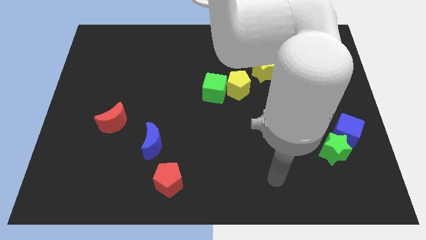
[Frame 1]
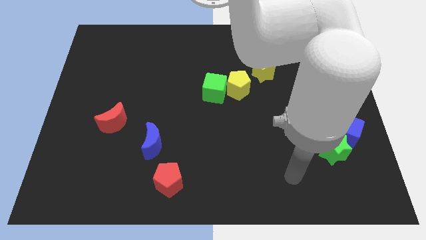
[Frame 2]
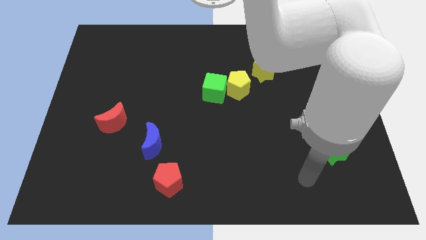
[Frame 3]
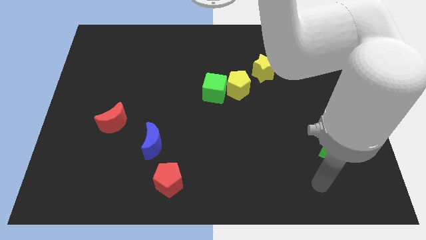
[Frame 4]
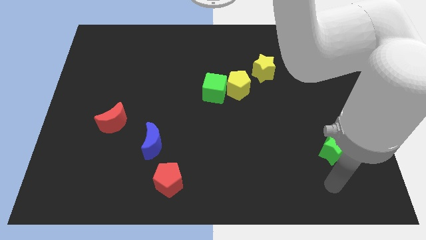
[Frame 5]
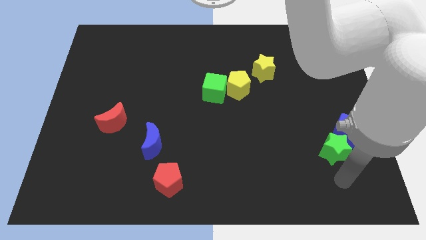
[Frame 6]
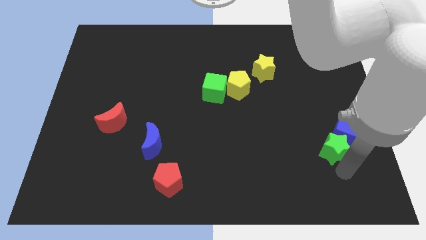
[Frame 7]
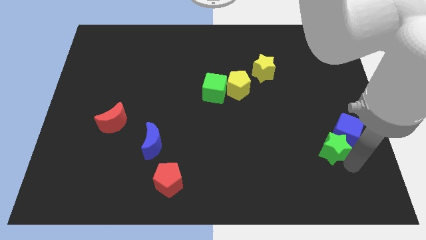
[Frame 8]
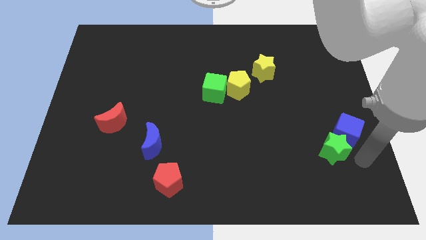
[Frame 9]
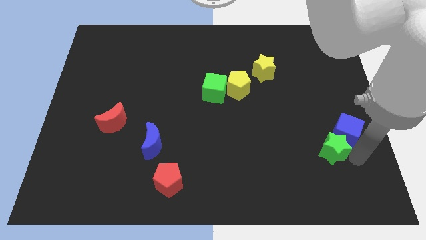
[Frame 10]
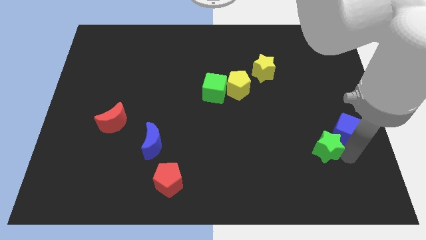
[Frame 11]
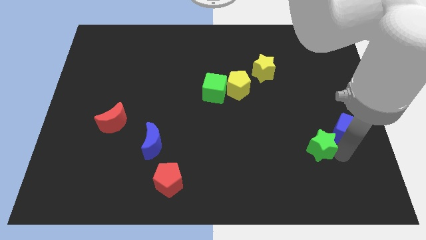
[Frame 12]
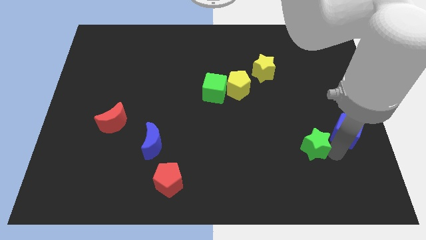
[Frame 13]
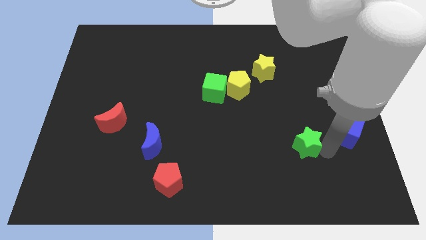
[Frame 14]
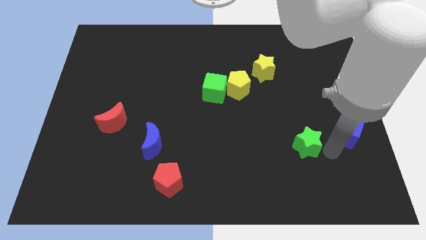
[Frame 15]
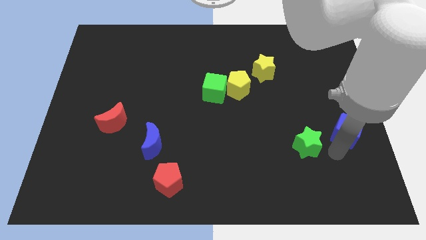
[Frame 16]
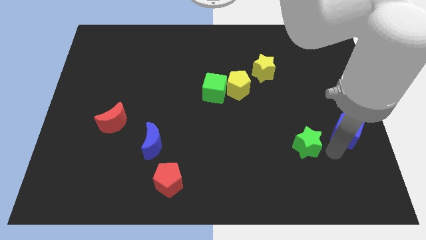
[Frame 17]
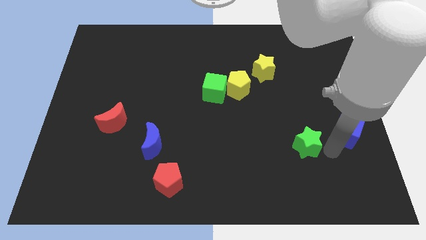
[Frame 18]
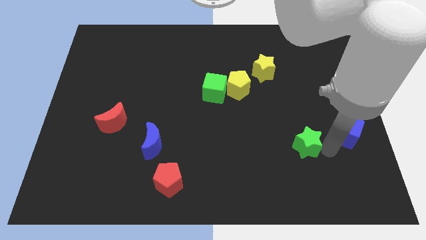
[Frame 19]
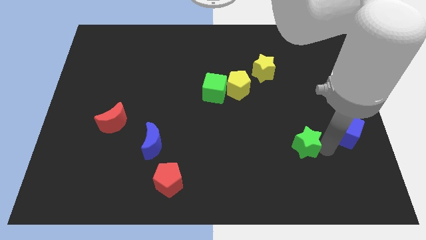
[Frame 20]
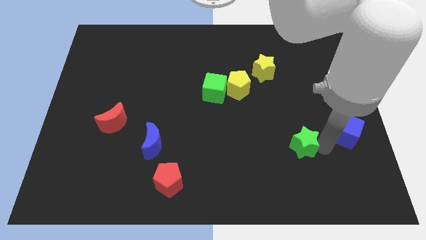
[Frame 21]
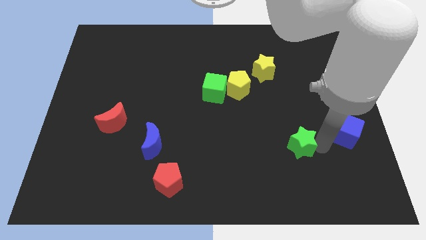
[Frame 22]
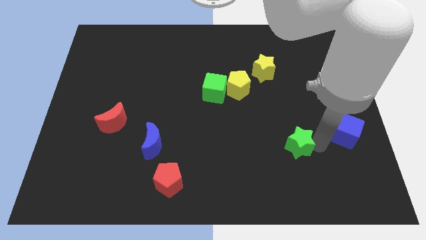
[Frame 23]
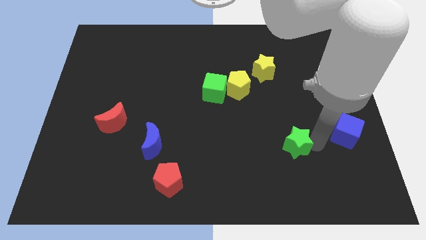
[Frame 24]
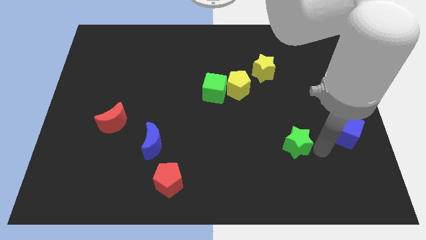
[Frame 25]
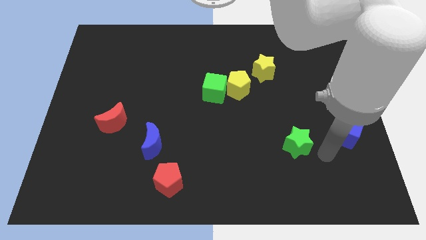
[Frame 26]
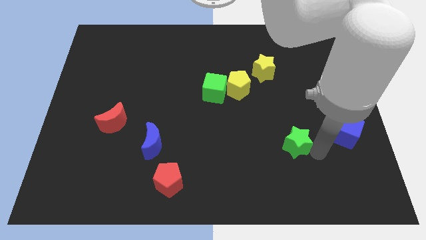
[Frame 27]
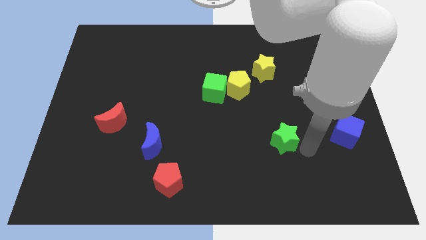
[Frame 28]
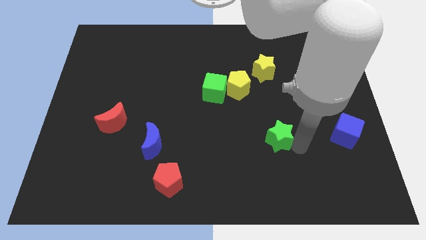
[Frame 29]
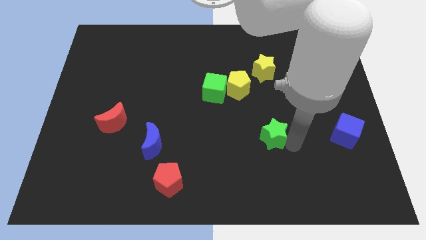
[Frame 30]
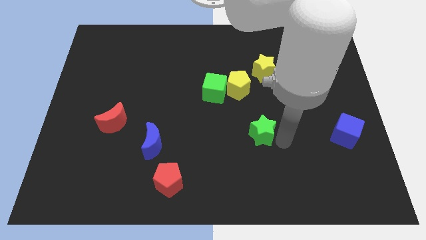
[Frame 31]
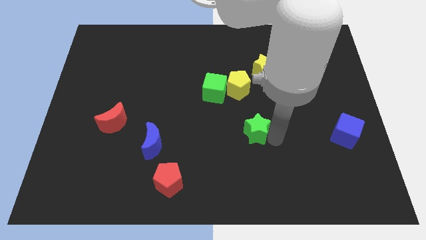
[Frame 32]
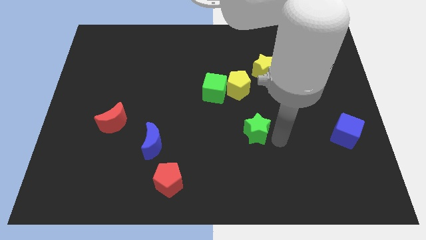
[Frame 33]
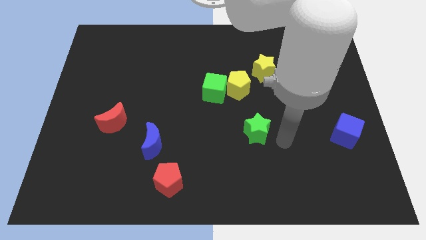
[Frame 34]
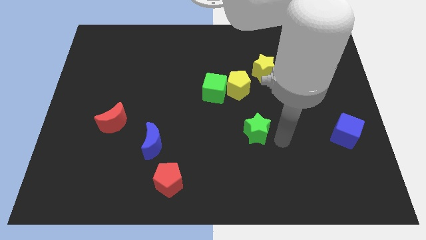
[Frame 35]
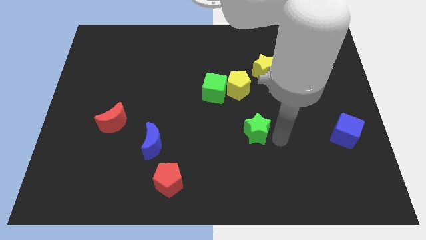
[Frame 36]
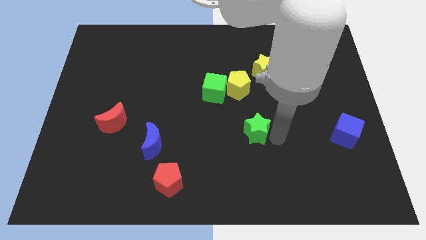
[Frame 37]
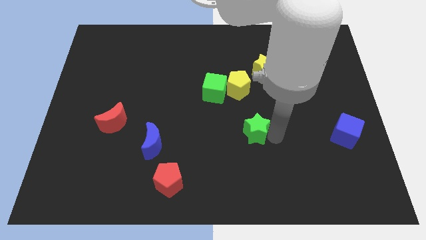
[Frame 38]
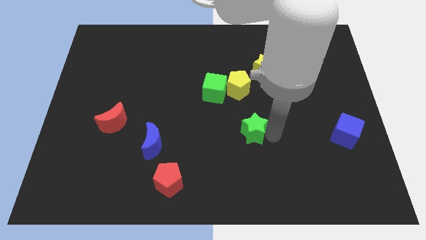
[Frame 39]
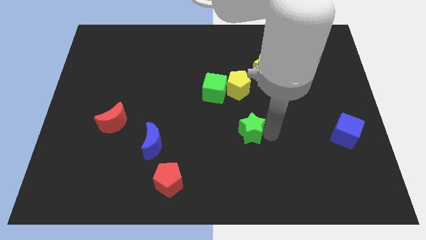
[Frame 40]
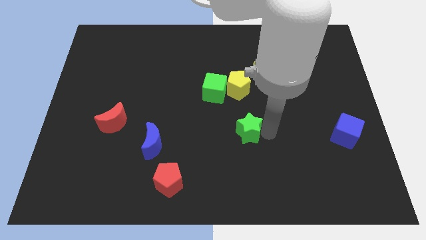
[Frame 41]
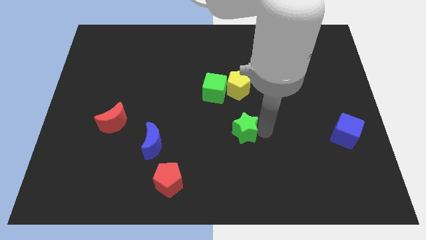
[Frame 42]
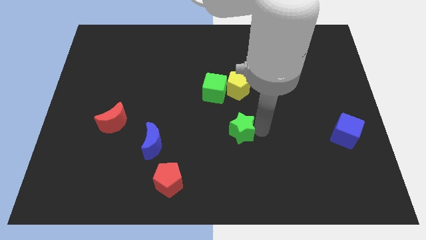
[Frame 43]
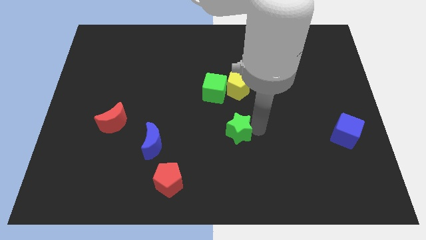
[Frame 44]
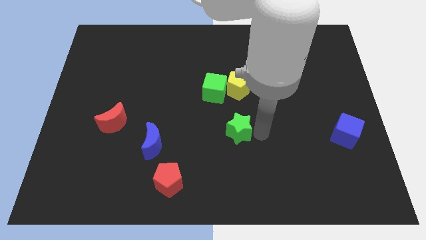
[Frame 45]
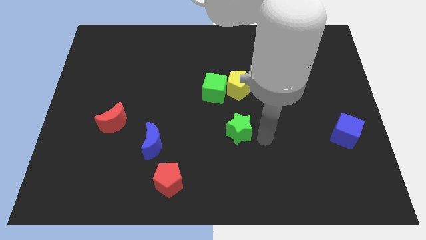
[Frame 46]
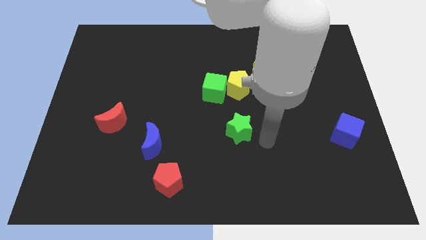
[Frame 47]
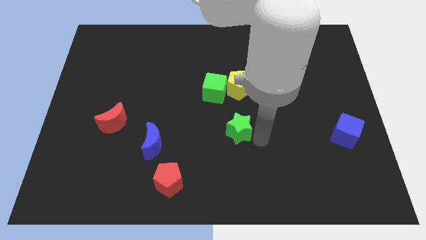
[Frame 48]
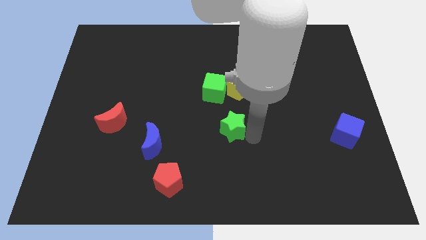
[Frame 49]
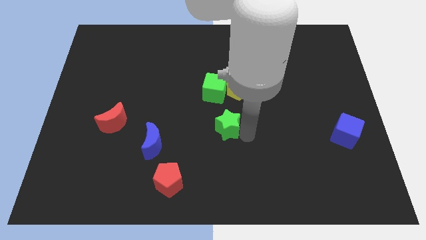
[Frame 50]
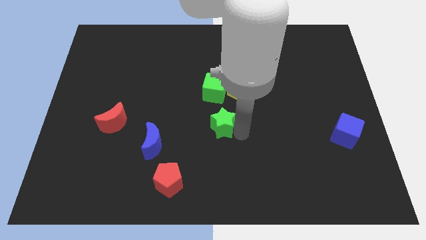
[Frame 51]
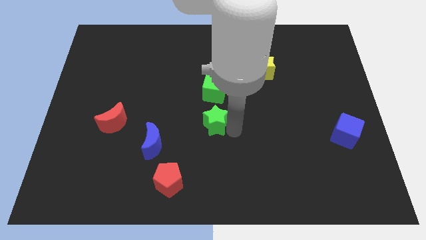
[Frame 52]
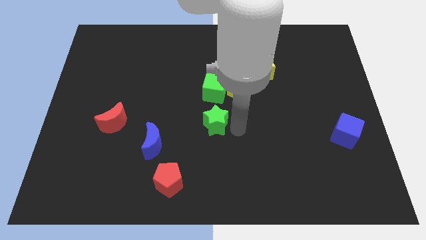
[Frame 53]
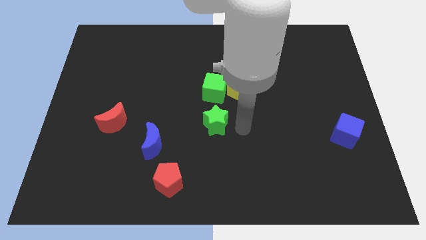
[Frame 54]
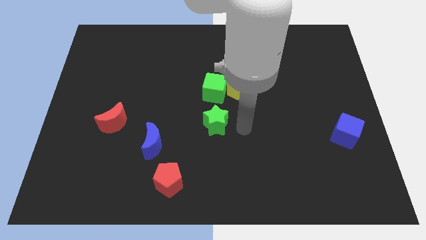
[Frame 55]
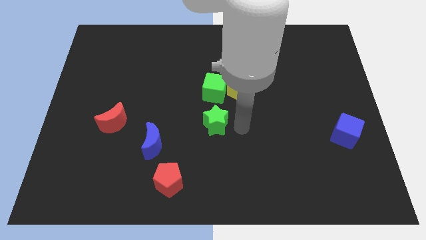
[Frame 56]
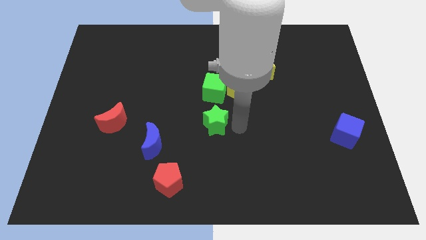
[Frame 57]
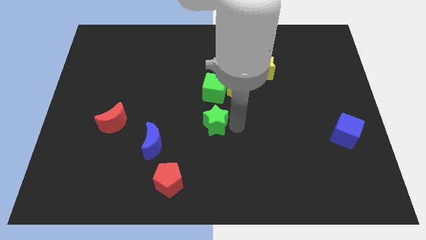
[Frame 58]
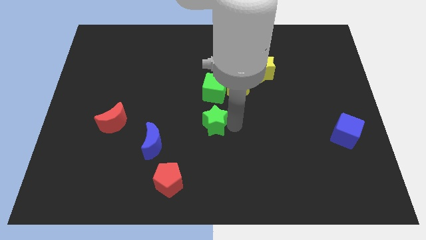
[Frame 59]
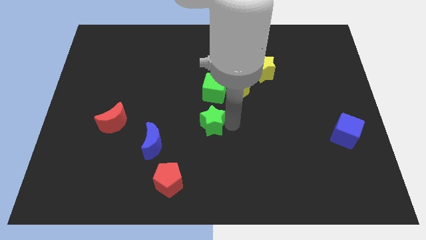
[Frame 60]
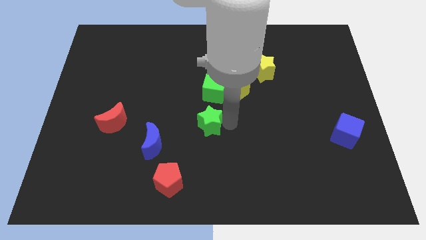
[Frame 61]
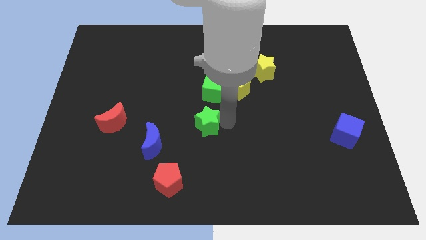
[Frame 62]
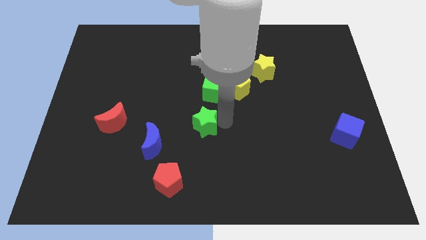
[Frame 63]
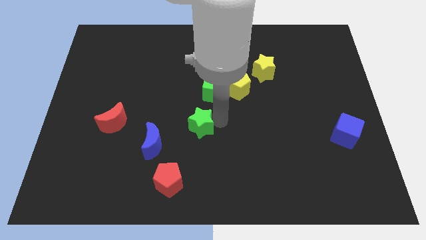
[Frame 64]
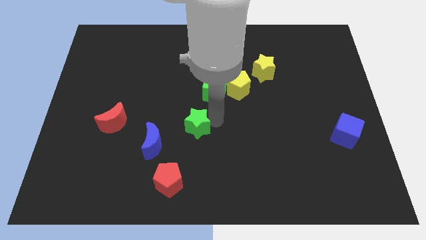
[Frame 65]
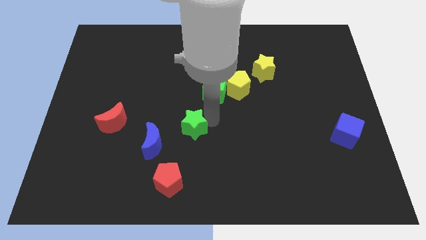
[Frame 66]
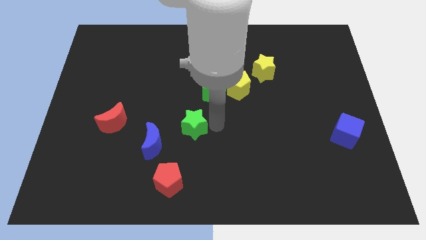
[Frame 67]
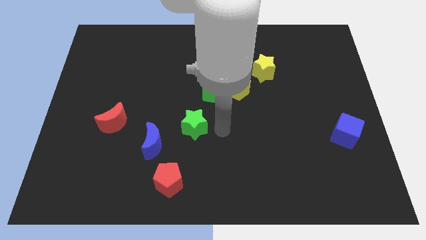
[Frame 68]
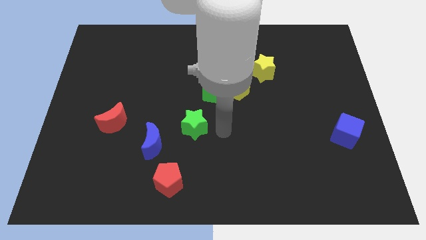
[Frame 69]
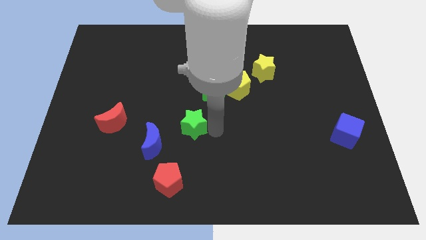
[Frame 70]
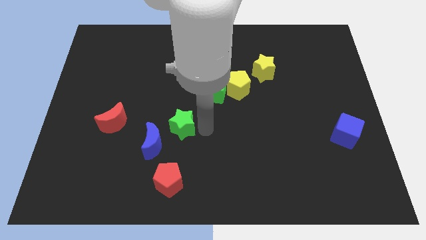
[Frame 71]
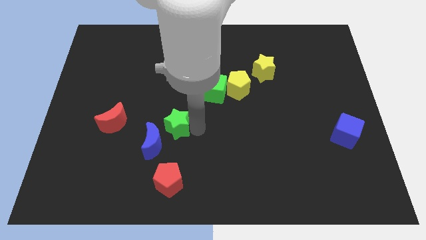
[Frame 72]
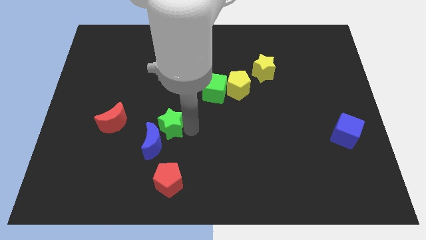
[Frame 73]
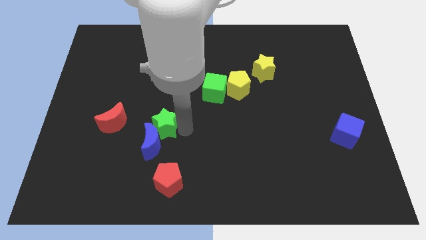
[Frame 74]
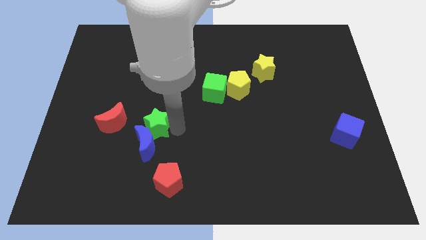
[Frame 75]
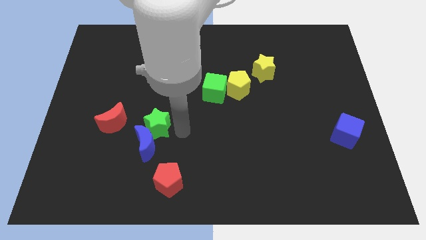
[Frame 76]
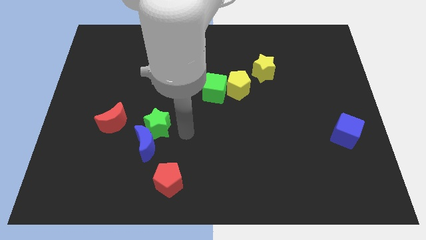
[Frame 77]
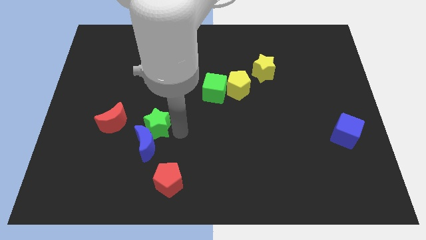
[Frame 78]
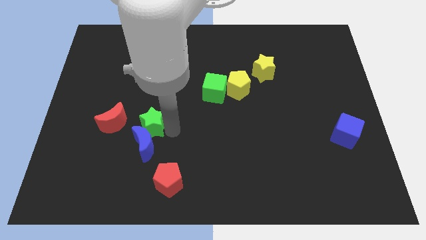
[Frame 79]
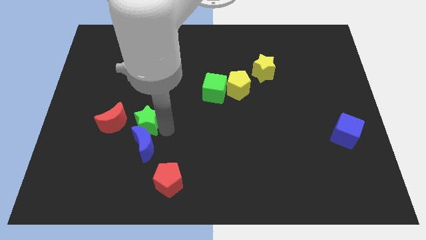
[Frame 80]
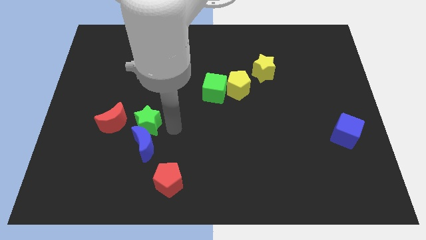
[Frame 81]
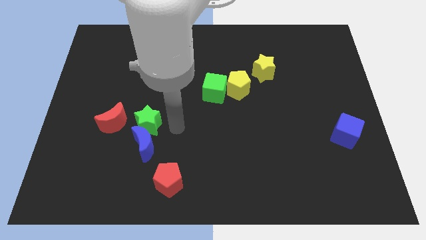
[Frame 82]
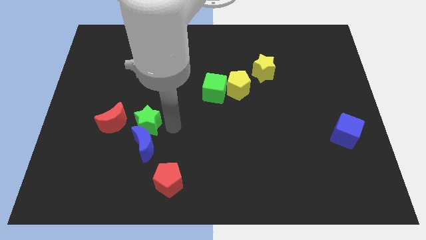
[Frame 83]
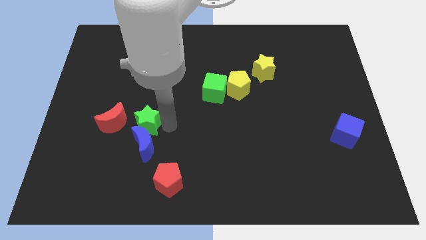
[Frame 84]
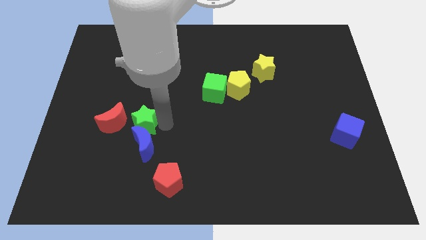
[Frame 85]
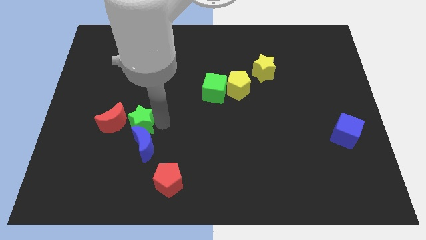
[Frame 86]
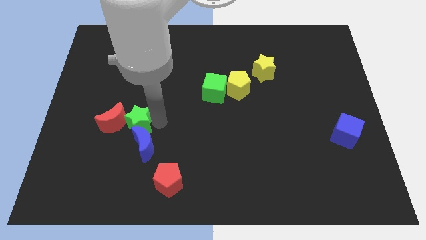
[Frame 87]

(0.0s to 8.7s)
push the green star next to the red moon
